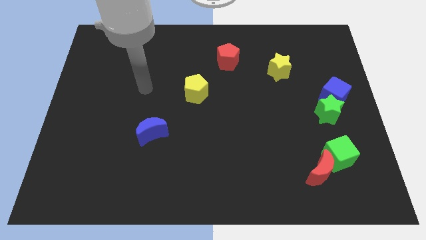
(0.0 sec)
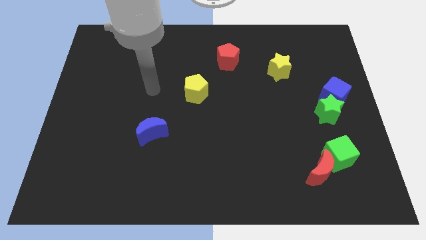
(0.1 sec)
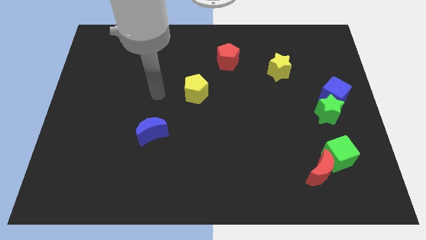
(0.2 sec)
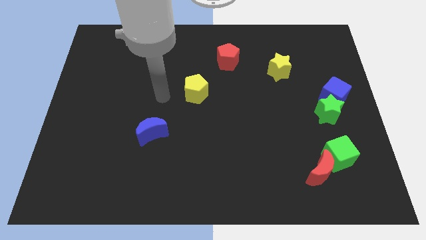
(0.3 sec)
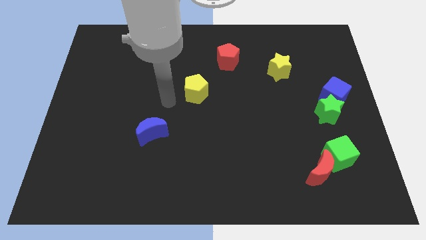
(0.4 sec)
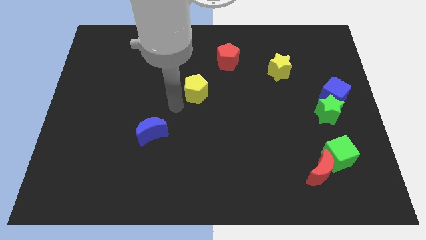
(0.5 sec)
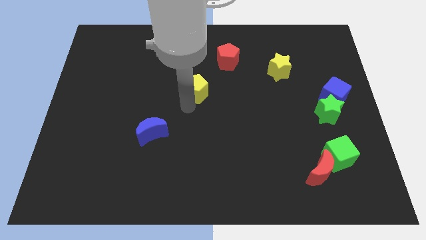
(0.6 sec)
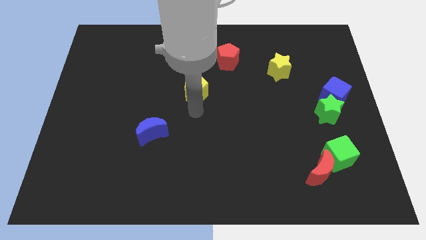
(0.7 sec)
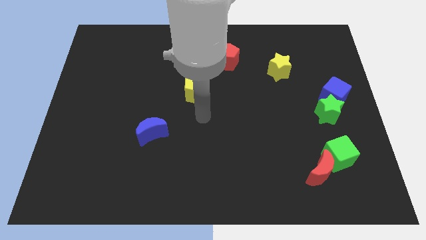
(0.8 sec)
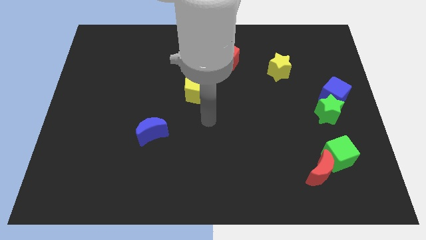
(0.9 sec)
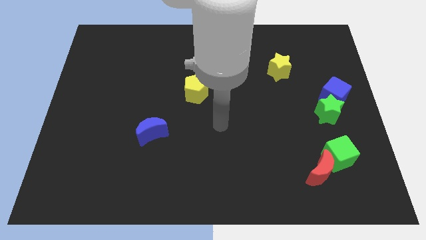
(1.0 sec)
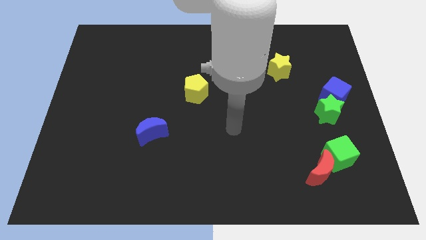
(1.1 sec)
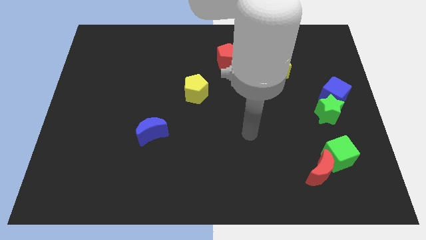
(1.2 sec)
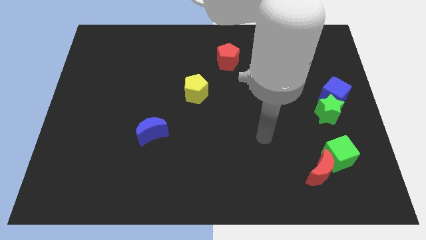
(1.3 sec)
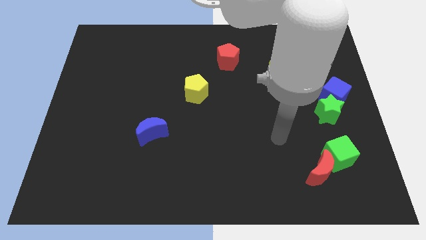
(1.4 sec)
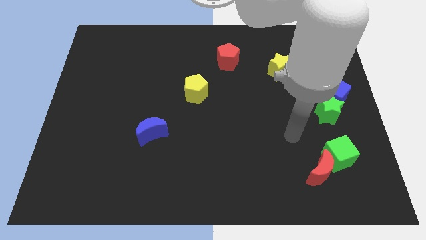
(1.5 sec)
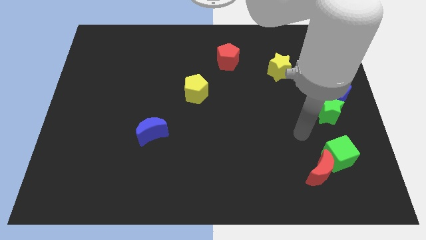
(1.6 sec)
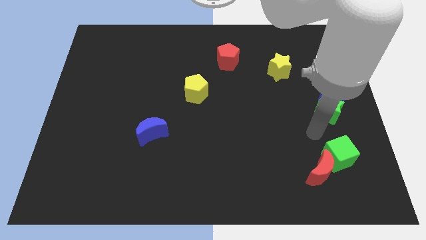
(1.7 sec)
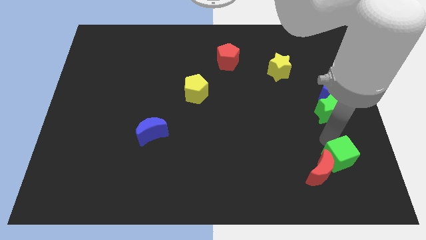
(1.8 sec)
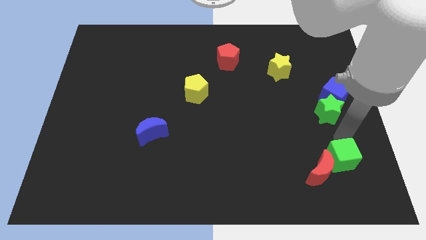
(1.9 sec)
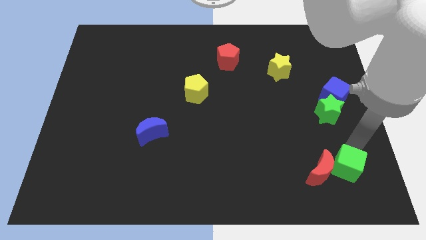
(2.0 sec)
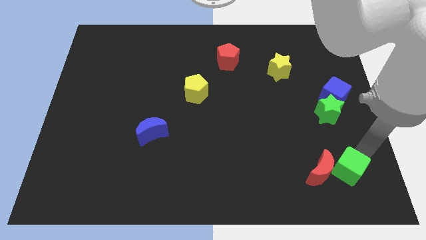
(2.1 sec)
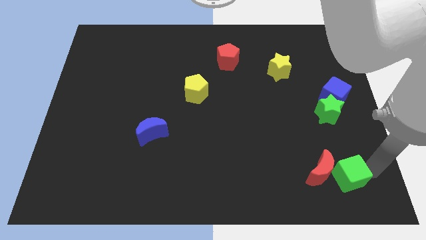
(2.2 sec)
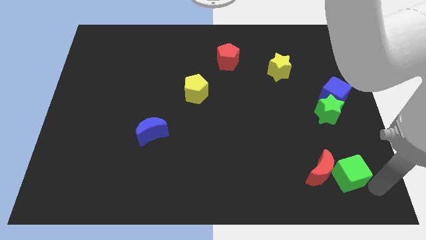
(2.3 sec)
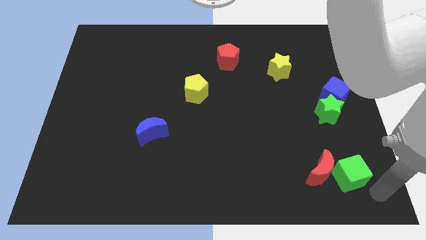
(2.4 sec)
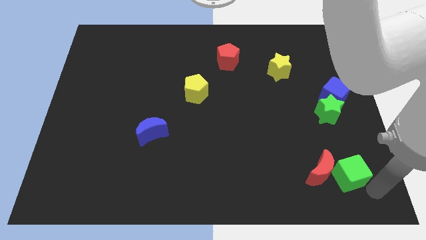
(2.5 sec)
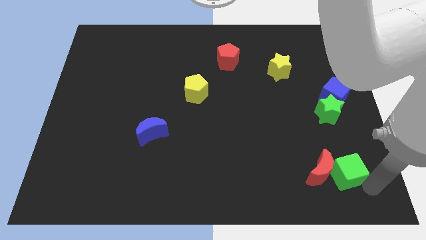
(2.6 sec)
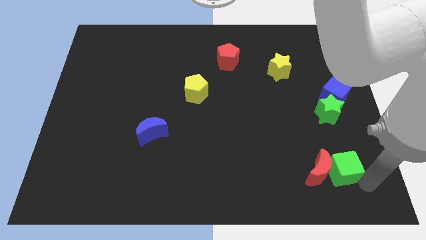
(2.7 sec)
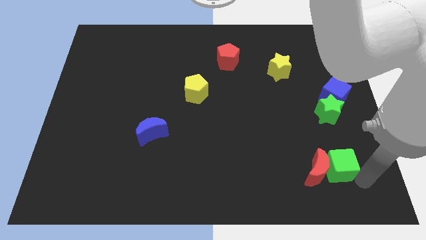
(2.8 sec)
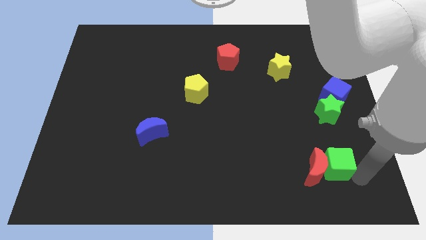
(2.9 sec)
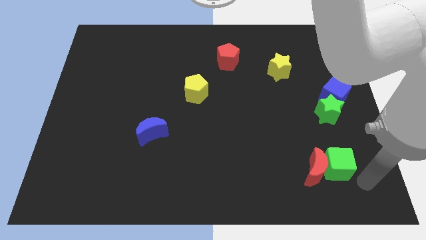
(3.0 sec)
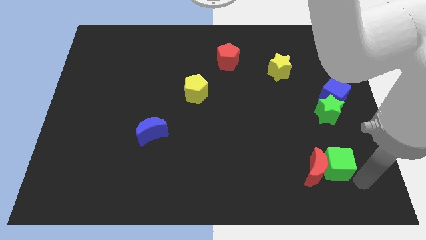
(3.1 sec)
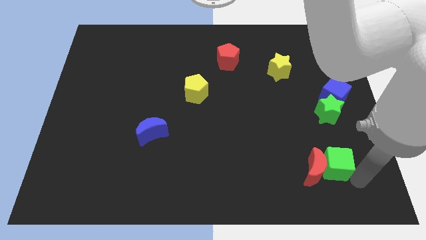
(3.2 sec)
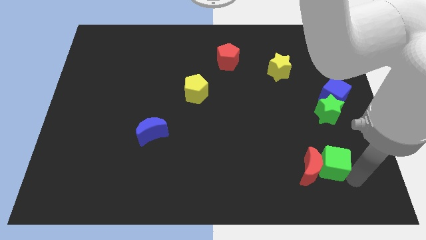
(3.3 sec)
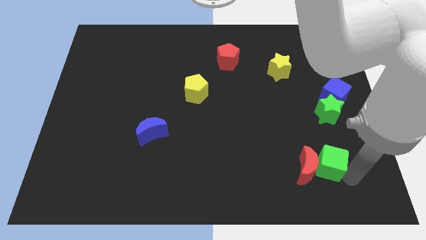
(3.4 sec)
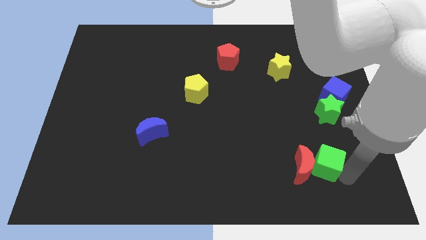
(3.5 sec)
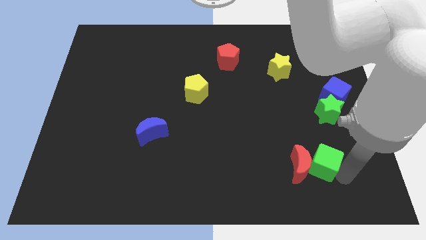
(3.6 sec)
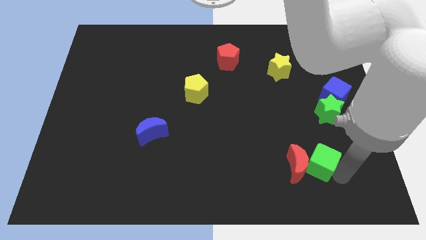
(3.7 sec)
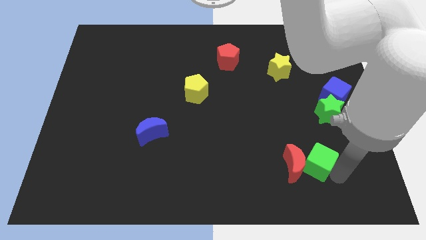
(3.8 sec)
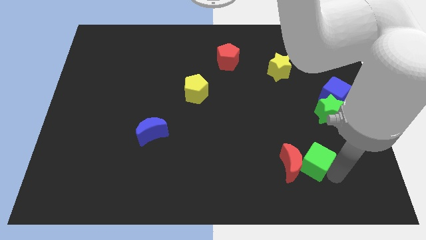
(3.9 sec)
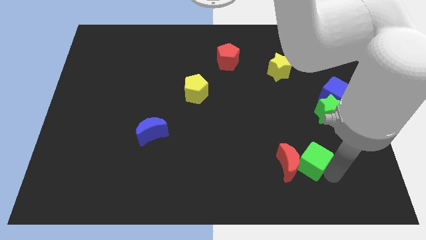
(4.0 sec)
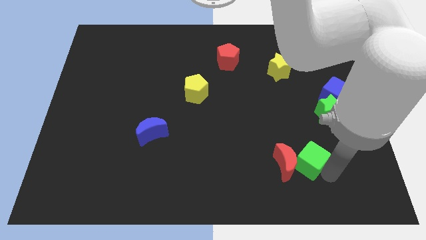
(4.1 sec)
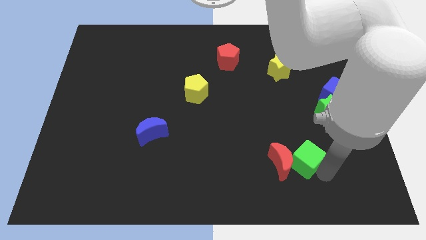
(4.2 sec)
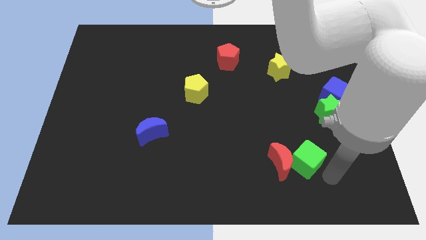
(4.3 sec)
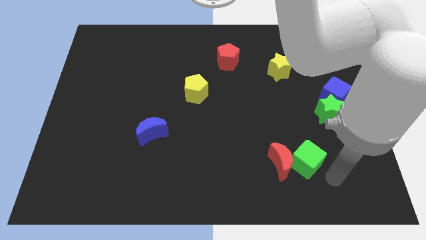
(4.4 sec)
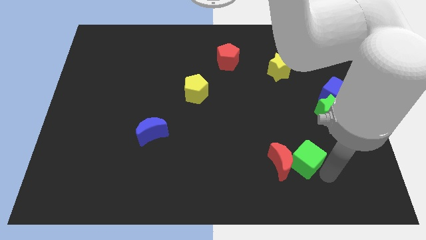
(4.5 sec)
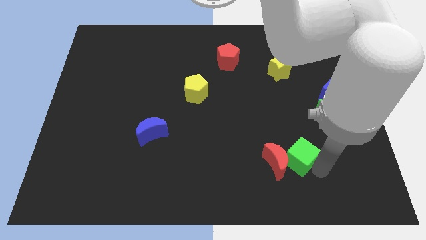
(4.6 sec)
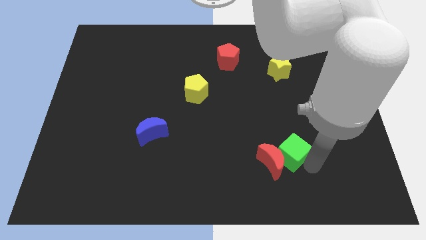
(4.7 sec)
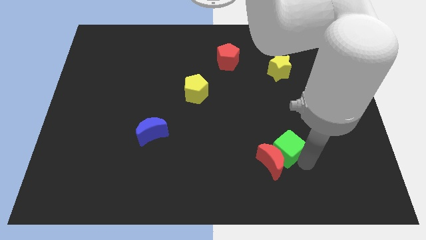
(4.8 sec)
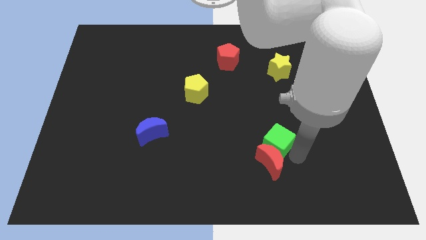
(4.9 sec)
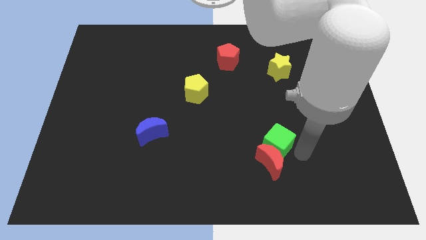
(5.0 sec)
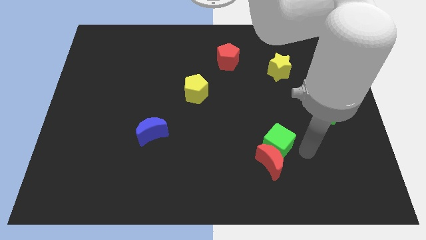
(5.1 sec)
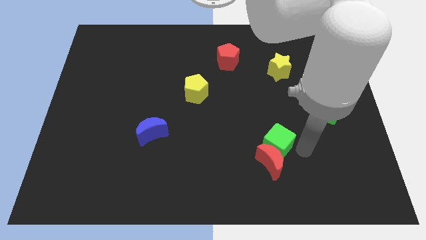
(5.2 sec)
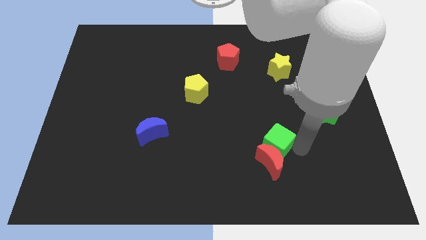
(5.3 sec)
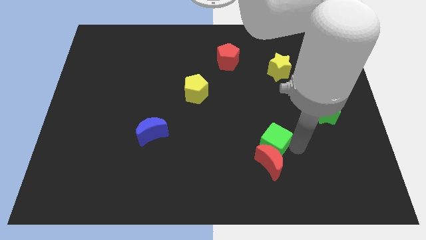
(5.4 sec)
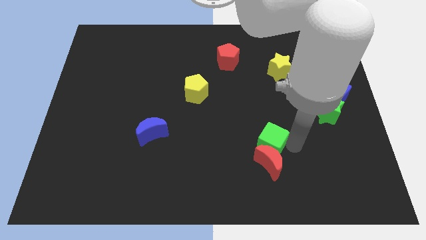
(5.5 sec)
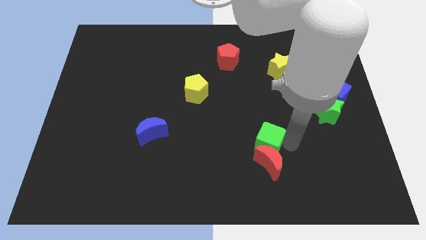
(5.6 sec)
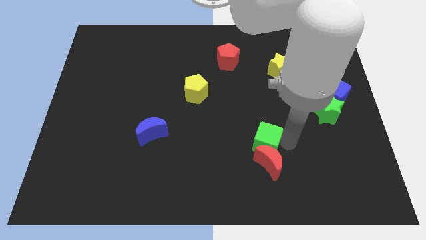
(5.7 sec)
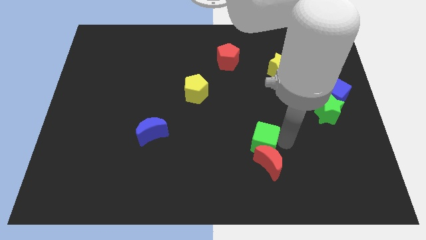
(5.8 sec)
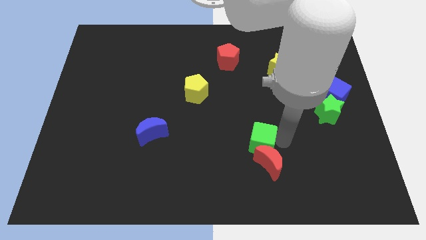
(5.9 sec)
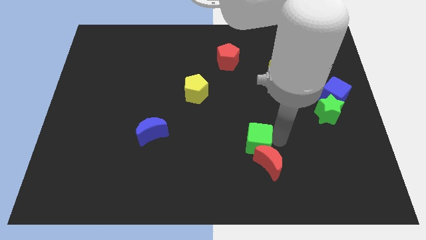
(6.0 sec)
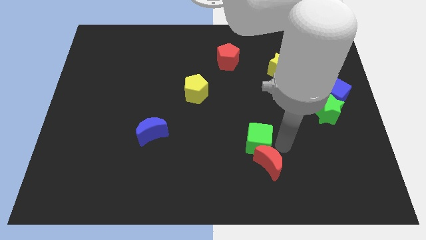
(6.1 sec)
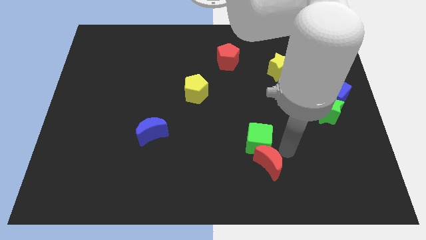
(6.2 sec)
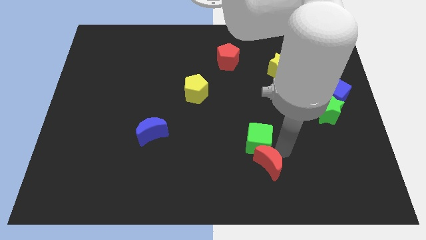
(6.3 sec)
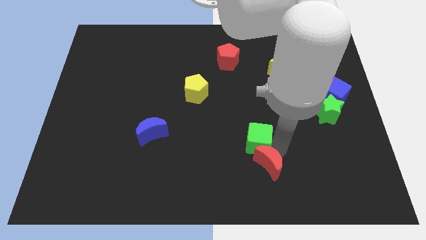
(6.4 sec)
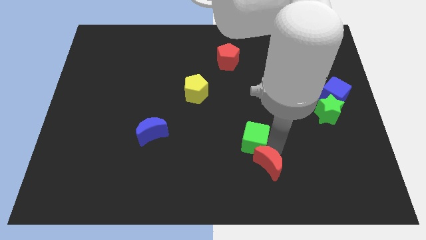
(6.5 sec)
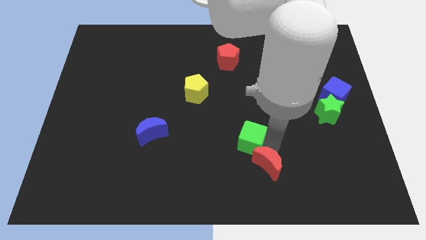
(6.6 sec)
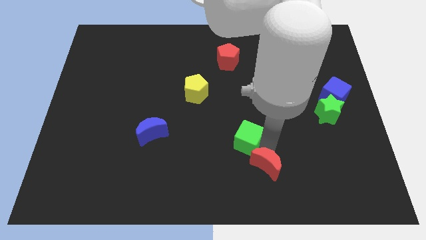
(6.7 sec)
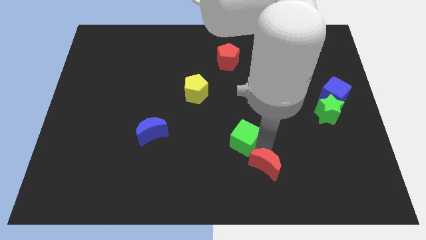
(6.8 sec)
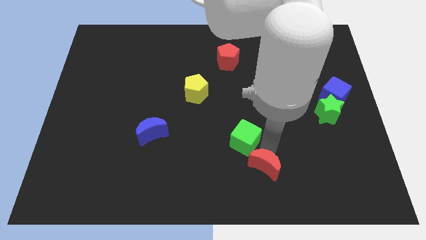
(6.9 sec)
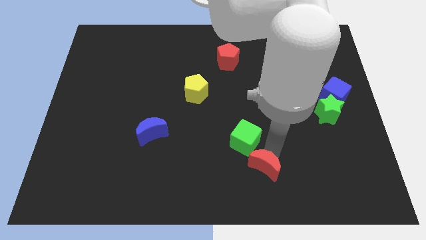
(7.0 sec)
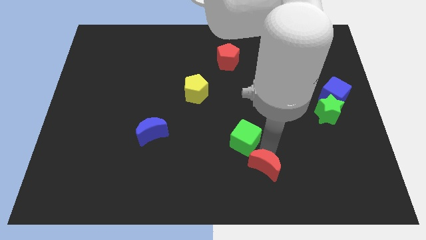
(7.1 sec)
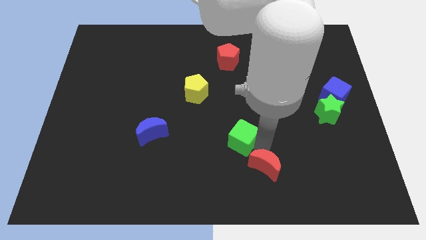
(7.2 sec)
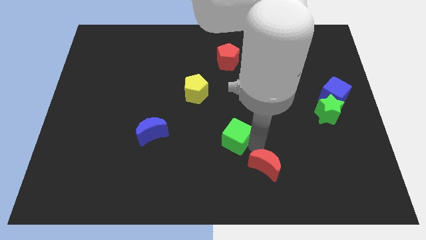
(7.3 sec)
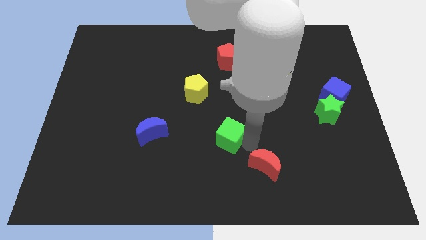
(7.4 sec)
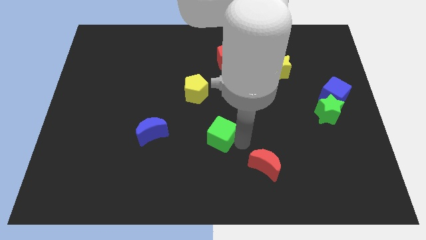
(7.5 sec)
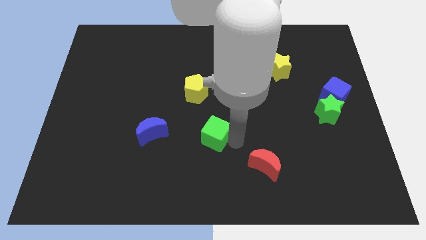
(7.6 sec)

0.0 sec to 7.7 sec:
put the green cube to the bottom side of the yellow pentagon
